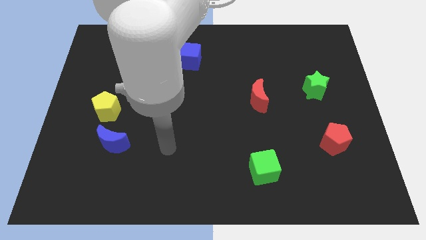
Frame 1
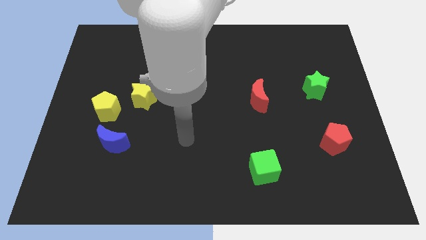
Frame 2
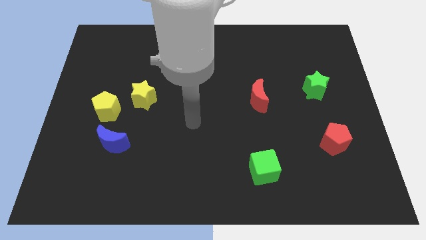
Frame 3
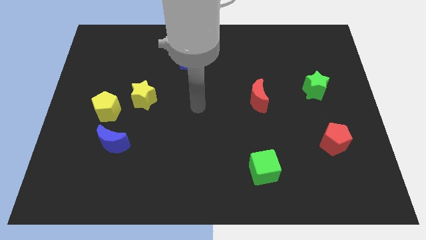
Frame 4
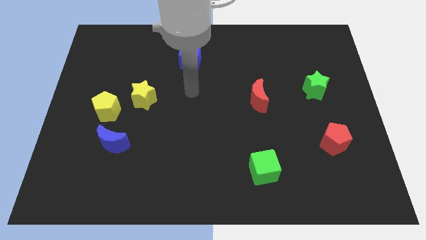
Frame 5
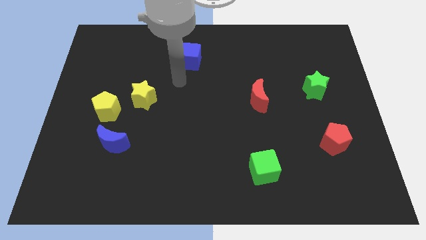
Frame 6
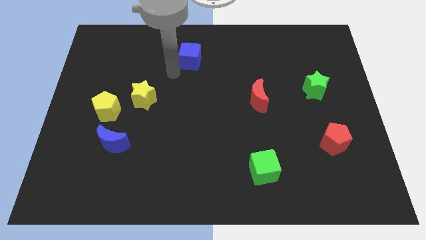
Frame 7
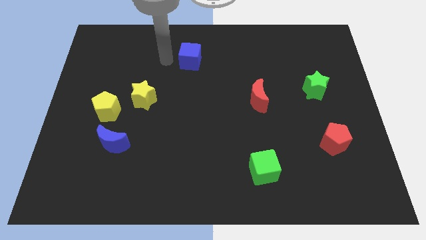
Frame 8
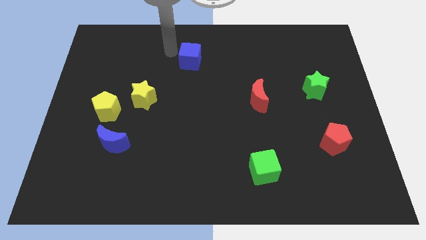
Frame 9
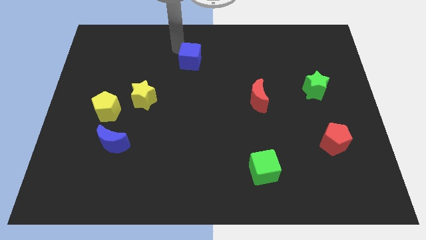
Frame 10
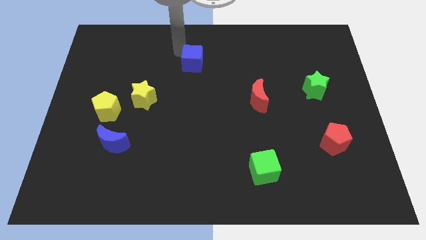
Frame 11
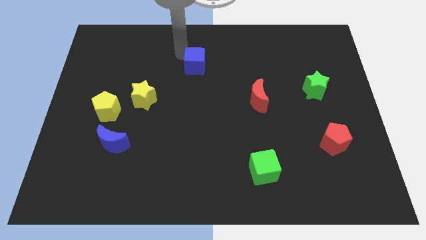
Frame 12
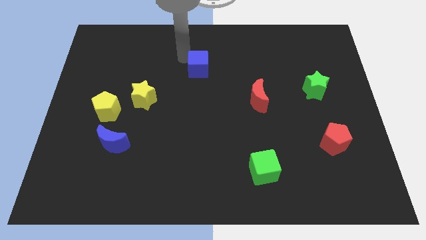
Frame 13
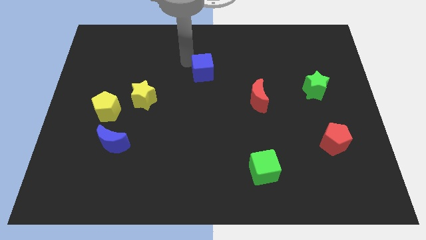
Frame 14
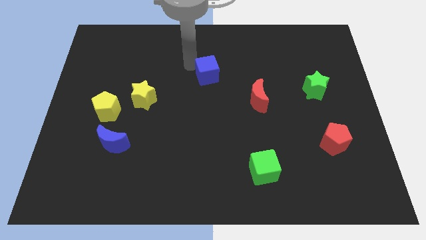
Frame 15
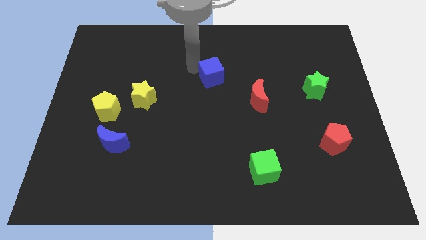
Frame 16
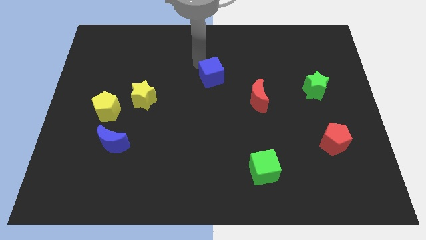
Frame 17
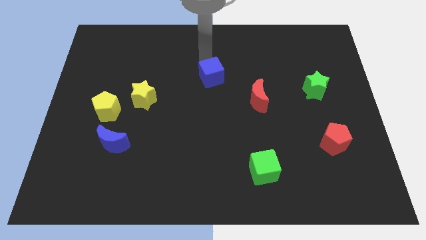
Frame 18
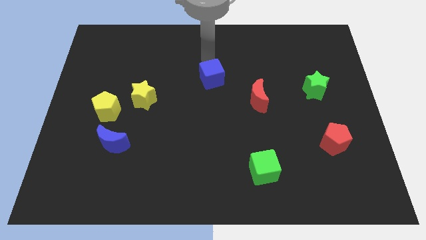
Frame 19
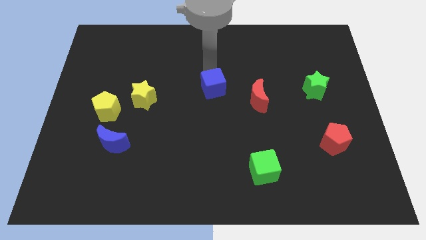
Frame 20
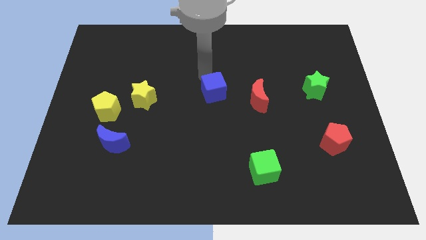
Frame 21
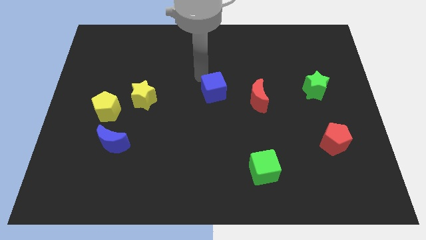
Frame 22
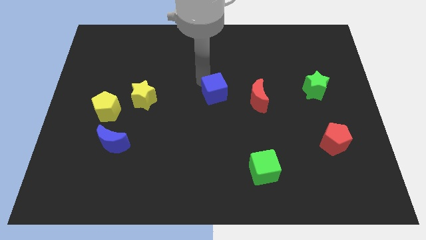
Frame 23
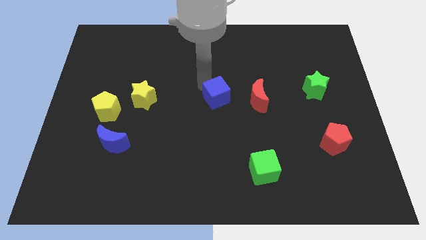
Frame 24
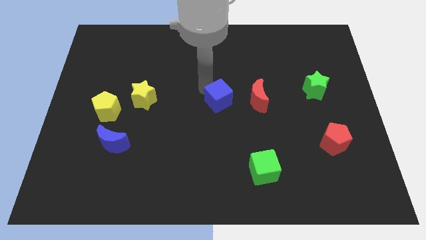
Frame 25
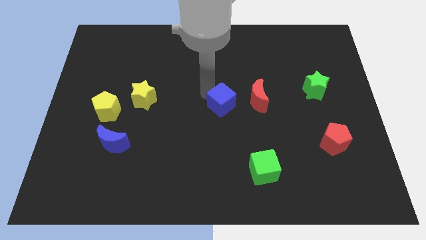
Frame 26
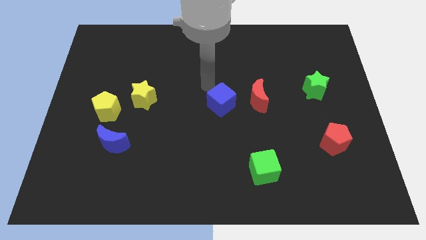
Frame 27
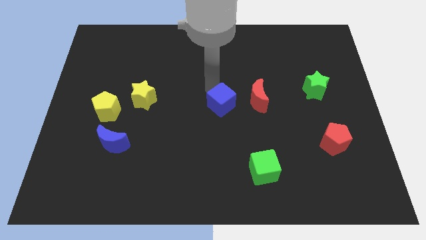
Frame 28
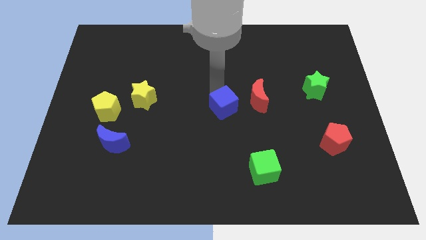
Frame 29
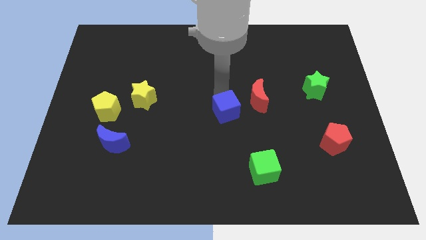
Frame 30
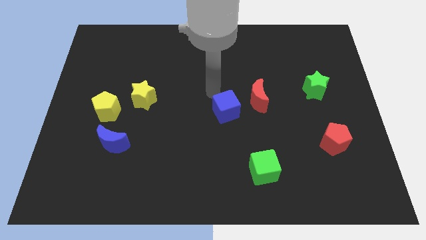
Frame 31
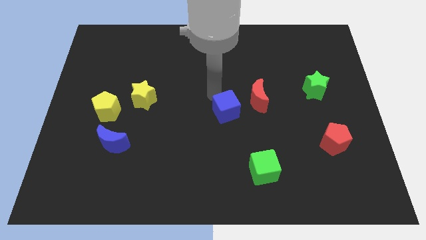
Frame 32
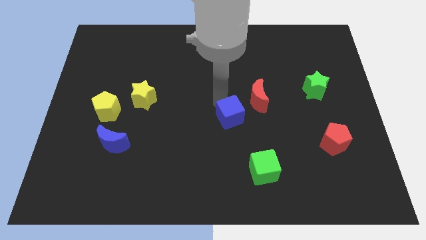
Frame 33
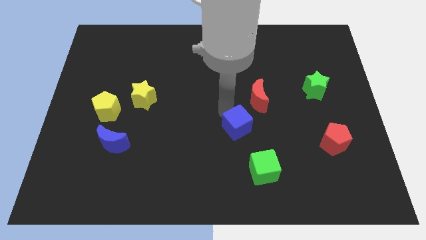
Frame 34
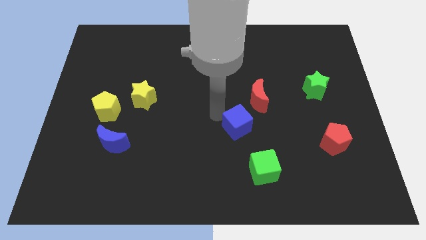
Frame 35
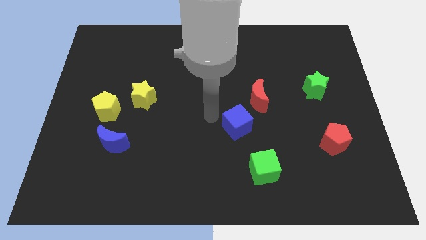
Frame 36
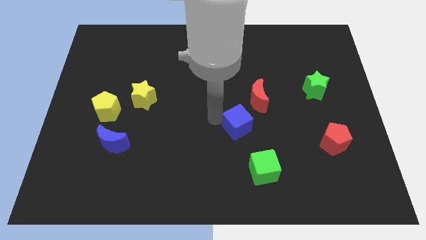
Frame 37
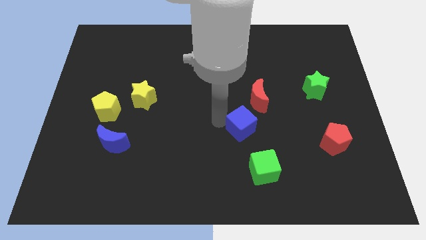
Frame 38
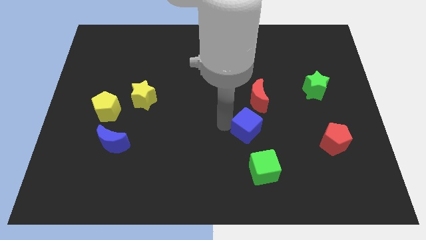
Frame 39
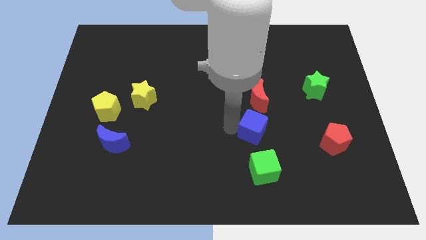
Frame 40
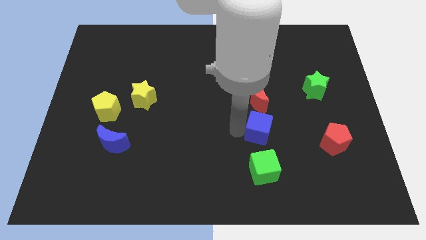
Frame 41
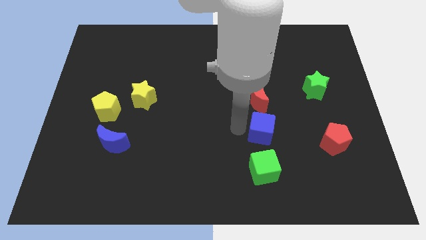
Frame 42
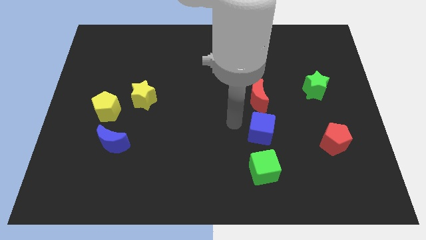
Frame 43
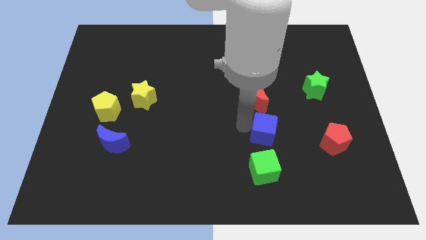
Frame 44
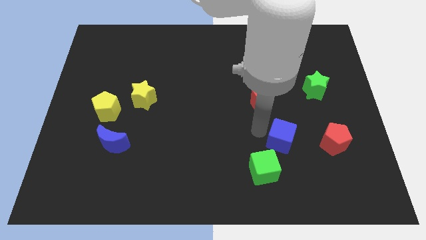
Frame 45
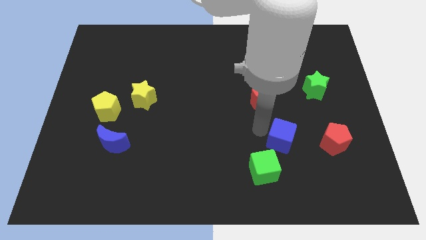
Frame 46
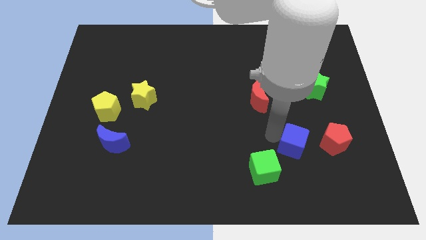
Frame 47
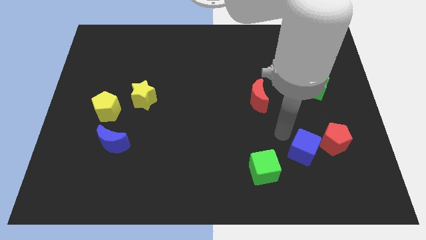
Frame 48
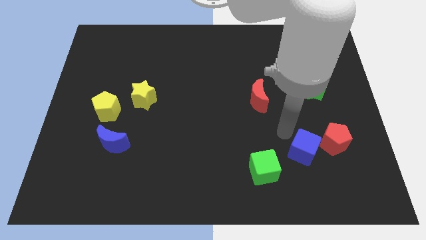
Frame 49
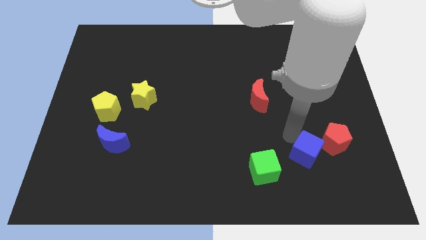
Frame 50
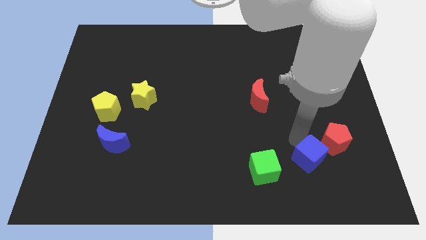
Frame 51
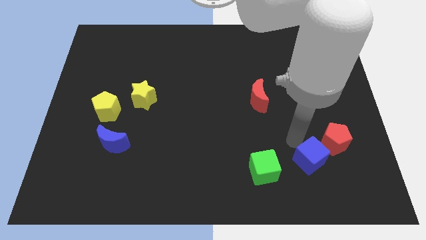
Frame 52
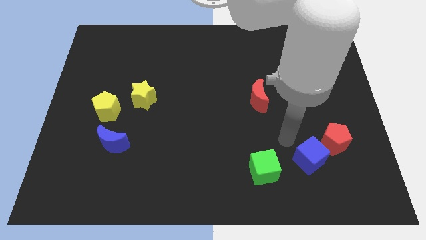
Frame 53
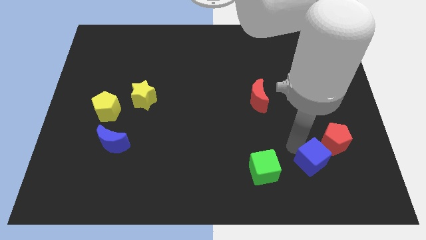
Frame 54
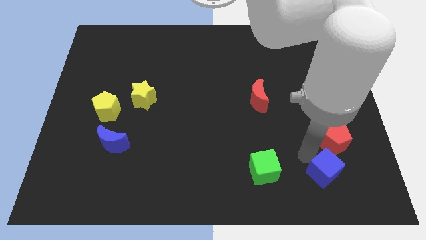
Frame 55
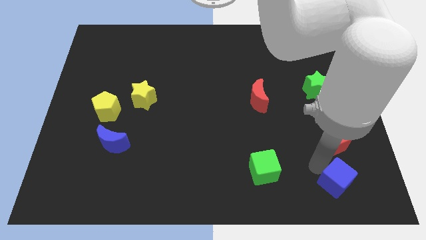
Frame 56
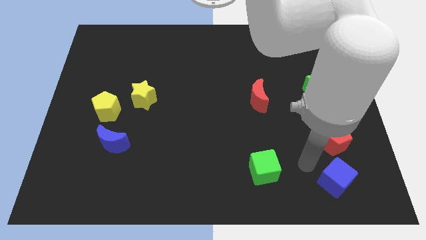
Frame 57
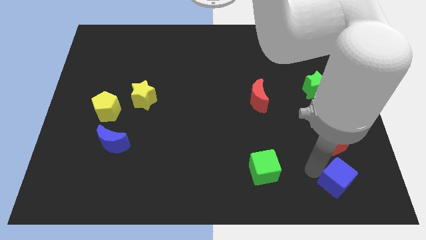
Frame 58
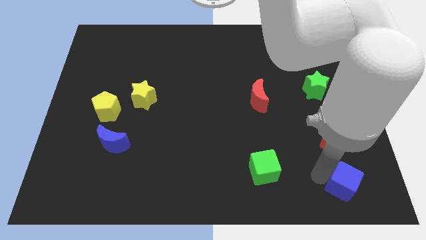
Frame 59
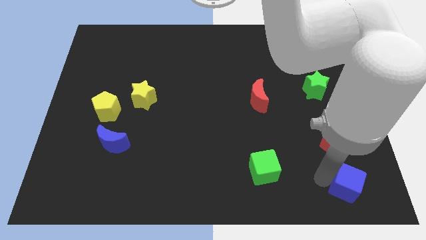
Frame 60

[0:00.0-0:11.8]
put the blue cube to the bottom right of the board
